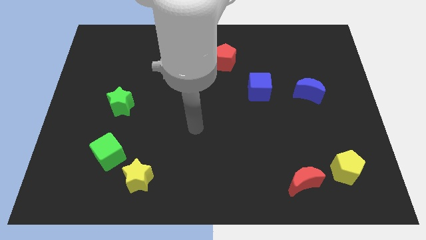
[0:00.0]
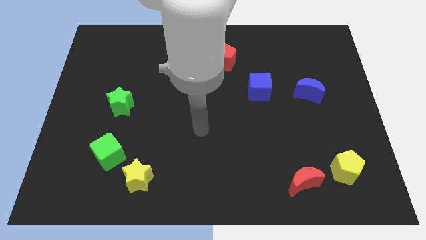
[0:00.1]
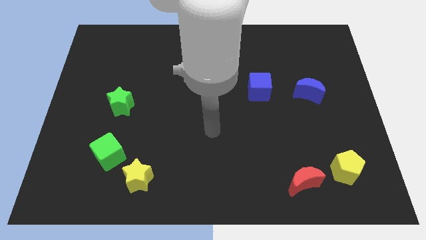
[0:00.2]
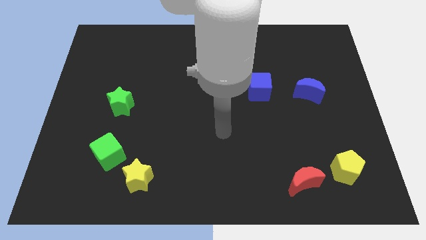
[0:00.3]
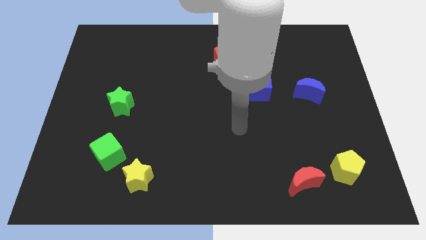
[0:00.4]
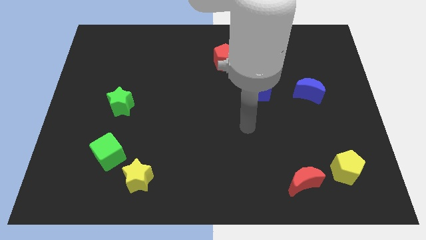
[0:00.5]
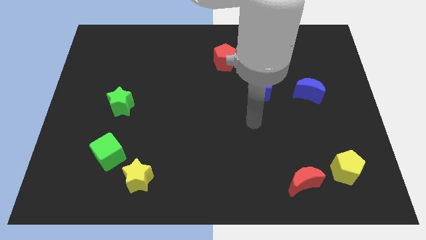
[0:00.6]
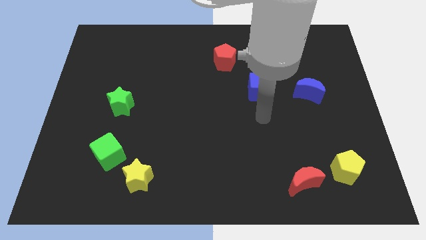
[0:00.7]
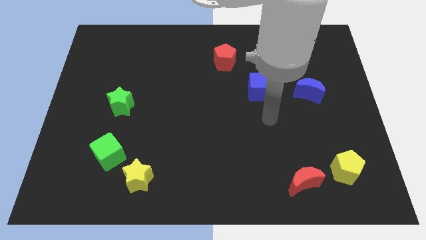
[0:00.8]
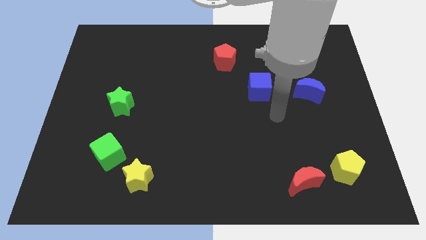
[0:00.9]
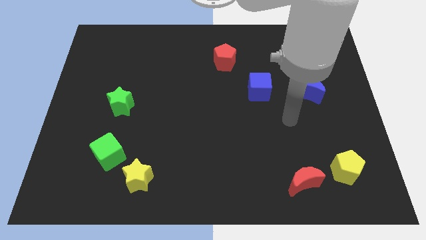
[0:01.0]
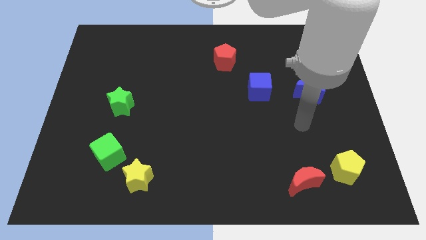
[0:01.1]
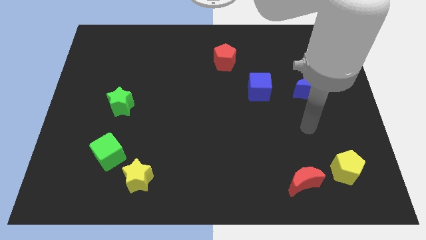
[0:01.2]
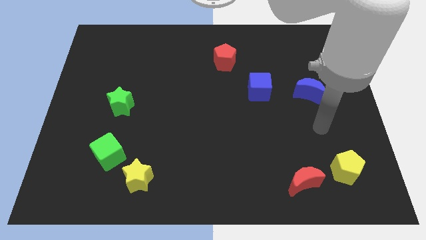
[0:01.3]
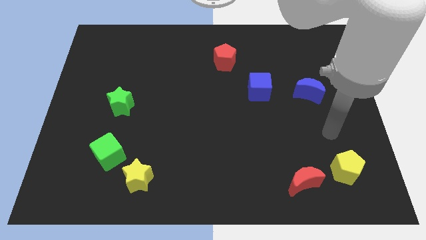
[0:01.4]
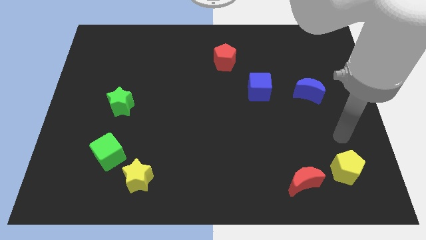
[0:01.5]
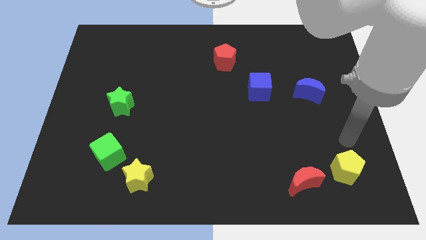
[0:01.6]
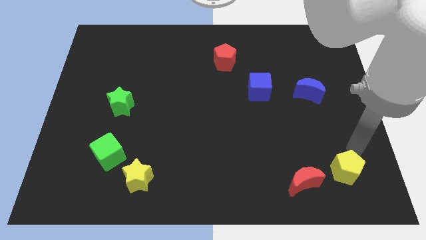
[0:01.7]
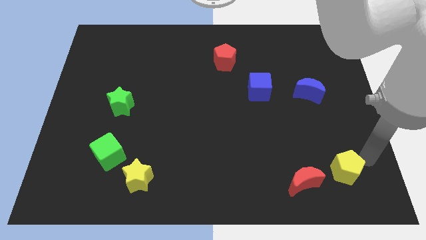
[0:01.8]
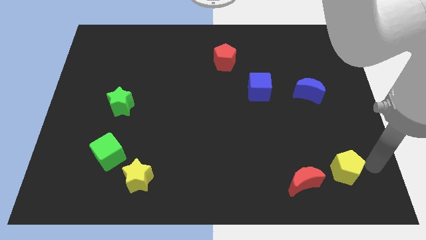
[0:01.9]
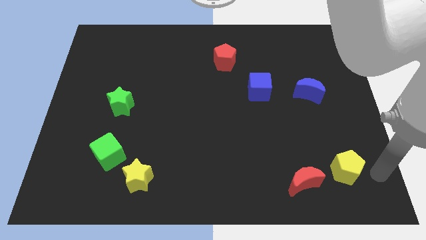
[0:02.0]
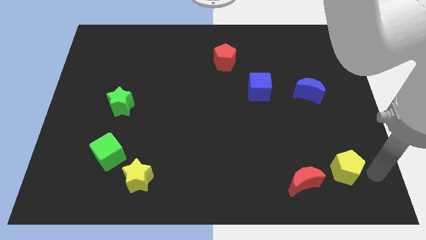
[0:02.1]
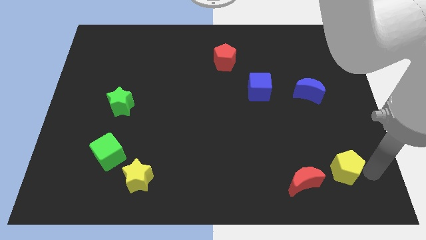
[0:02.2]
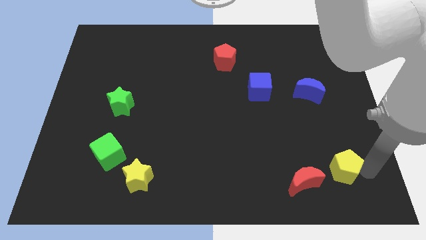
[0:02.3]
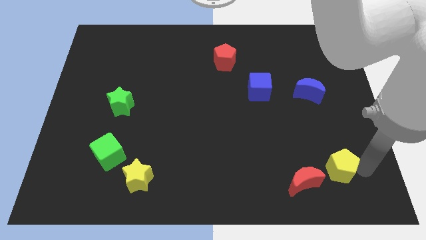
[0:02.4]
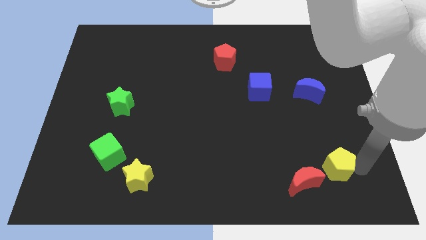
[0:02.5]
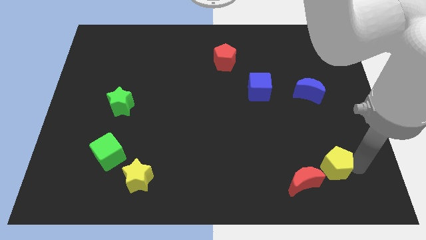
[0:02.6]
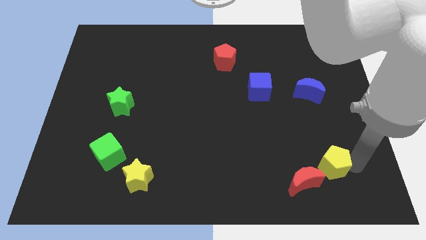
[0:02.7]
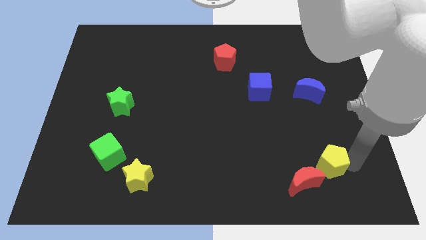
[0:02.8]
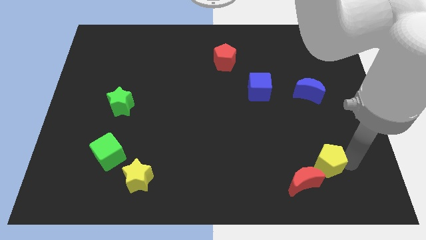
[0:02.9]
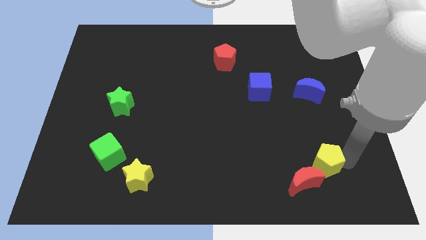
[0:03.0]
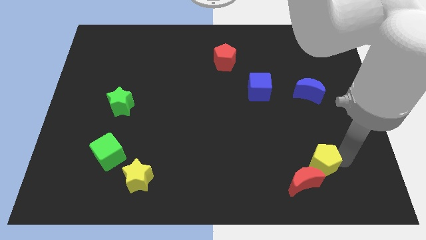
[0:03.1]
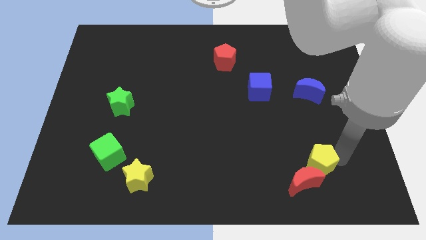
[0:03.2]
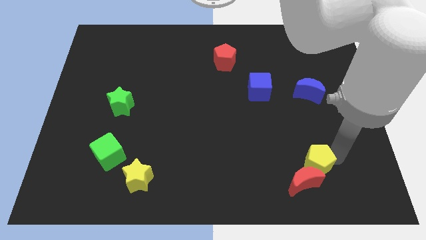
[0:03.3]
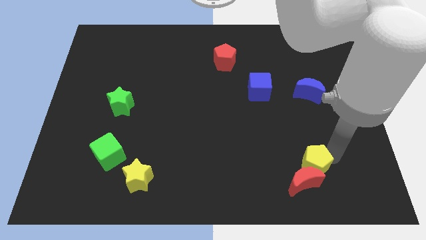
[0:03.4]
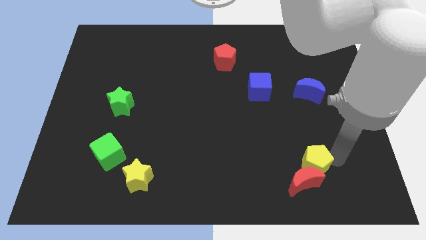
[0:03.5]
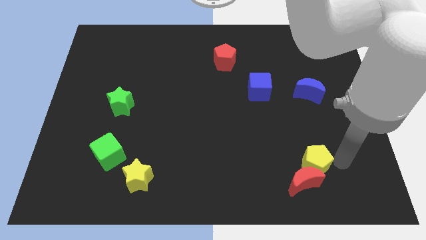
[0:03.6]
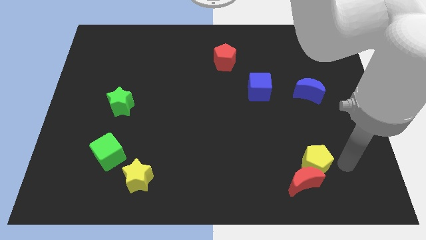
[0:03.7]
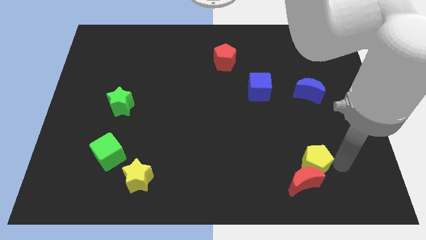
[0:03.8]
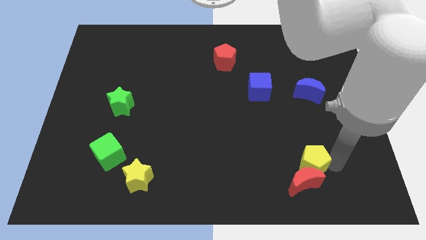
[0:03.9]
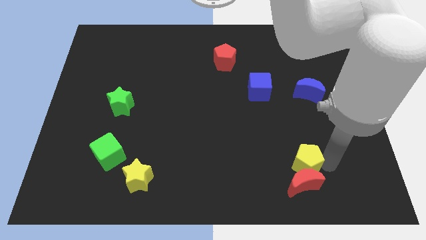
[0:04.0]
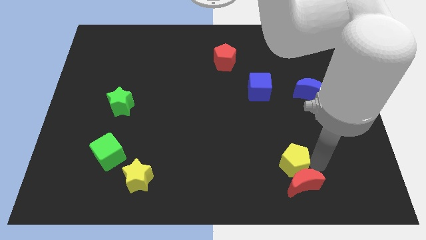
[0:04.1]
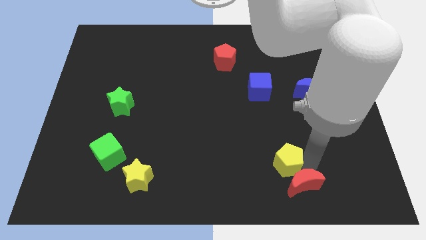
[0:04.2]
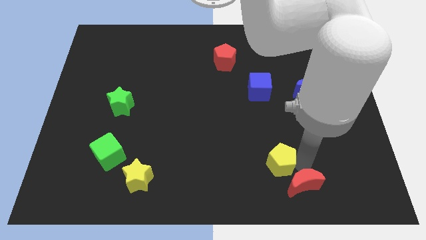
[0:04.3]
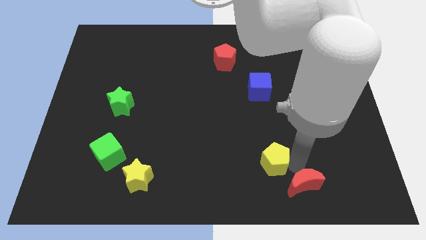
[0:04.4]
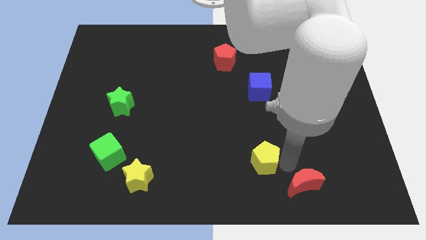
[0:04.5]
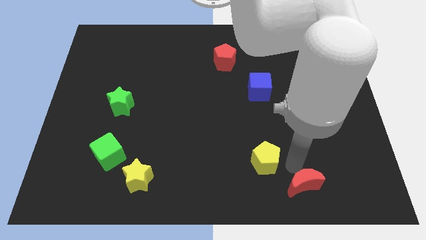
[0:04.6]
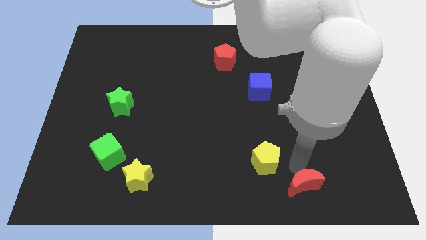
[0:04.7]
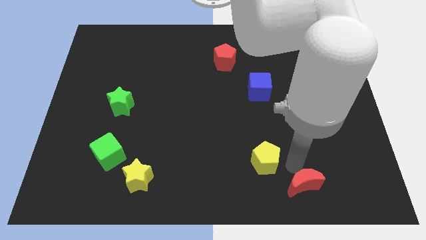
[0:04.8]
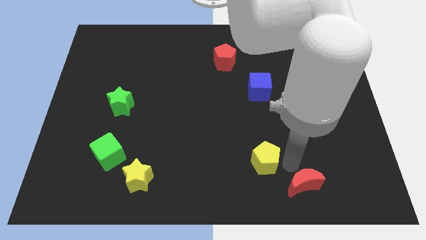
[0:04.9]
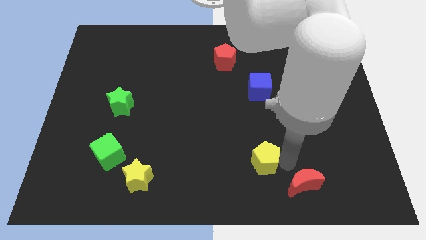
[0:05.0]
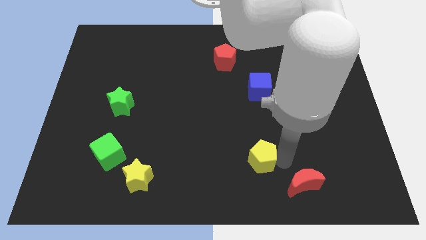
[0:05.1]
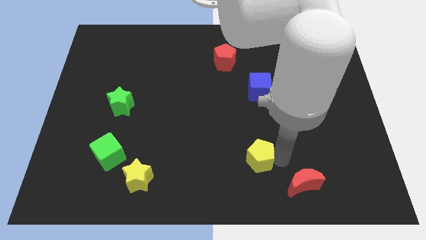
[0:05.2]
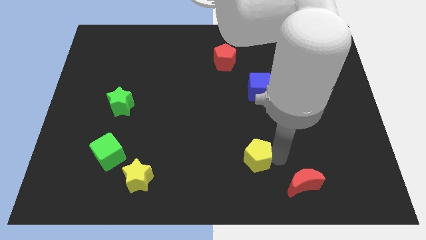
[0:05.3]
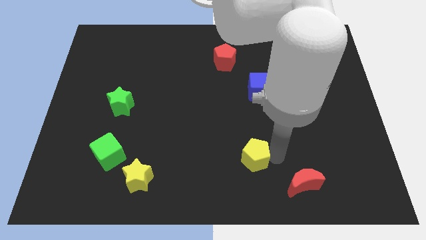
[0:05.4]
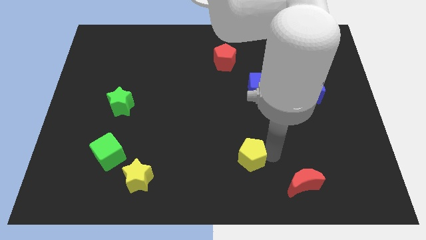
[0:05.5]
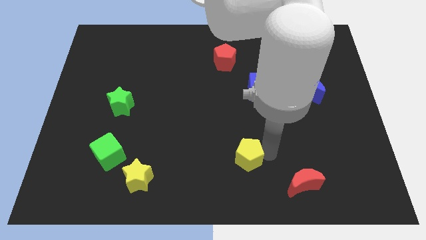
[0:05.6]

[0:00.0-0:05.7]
push the yellow pentagon left

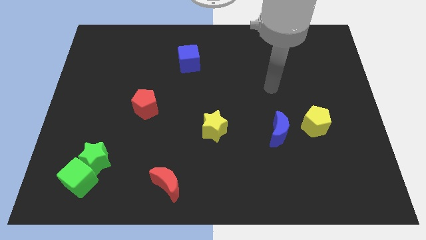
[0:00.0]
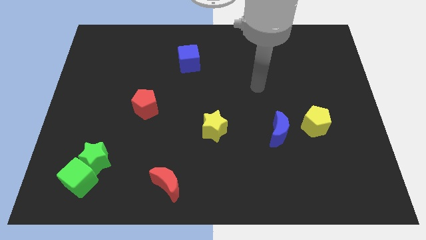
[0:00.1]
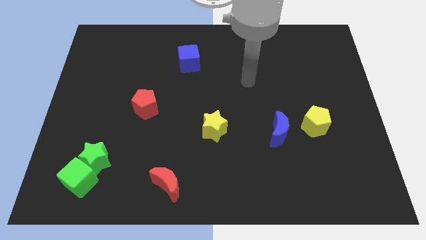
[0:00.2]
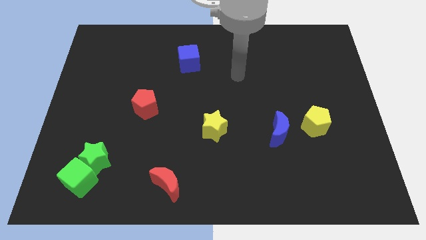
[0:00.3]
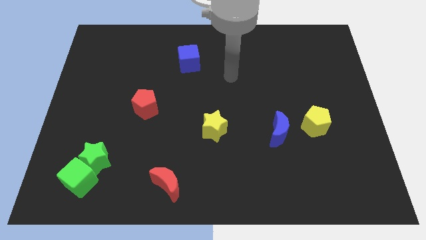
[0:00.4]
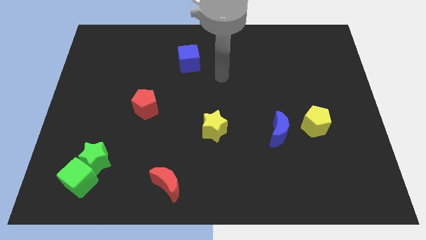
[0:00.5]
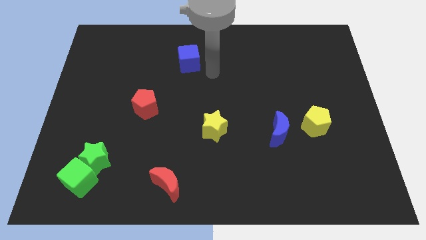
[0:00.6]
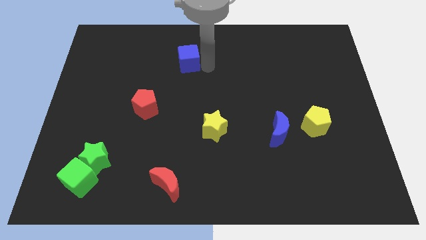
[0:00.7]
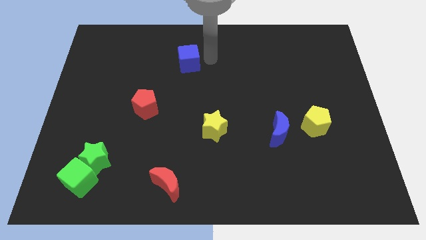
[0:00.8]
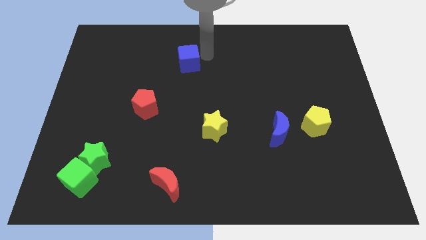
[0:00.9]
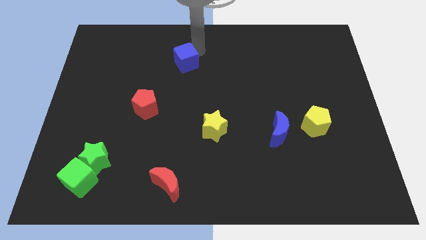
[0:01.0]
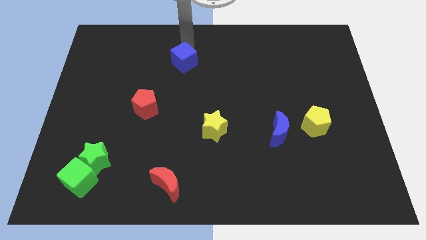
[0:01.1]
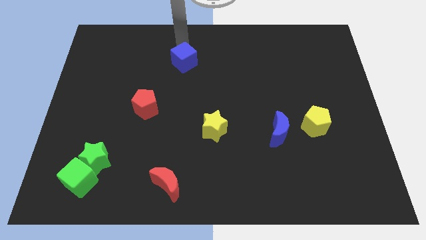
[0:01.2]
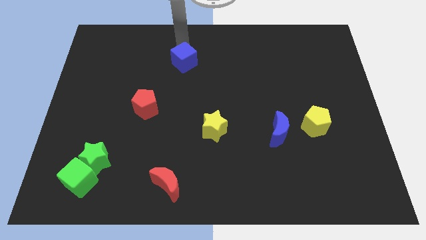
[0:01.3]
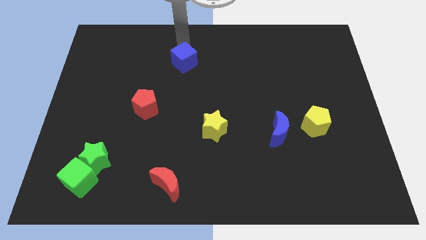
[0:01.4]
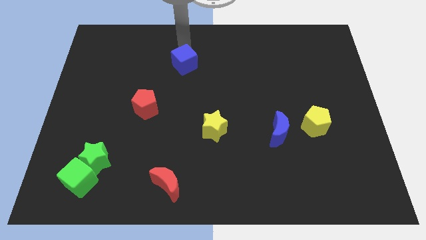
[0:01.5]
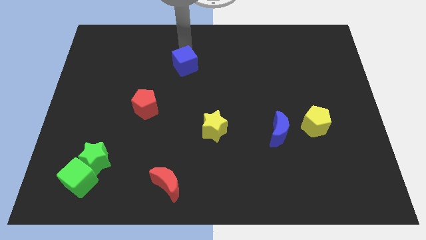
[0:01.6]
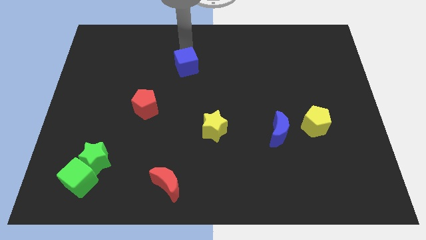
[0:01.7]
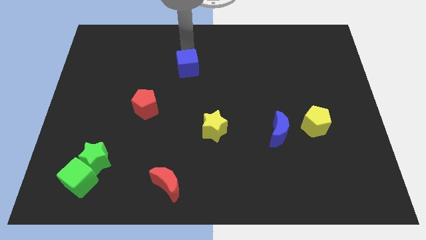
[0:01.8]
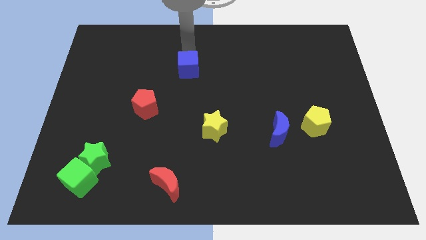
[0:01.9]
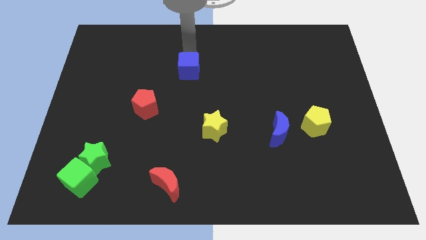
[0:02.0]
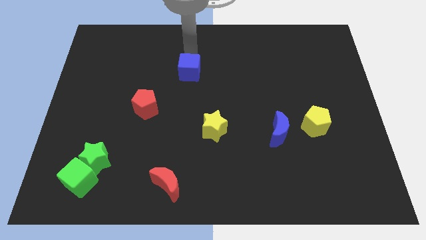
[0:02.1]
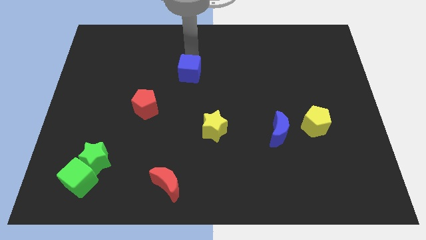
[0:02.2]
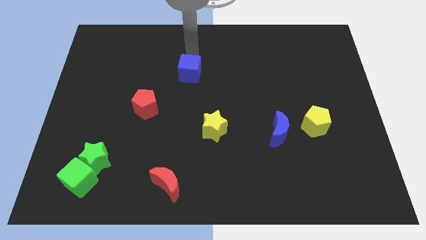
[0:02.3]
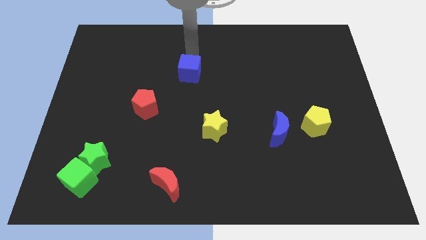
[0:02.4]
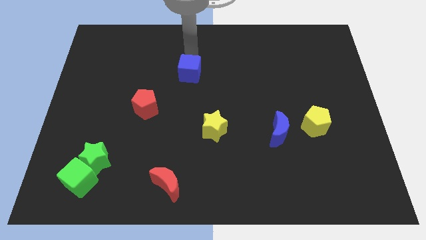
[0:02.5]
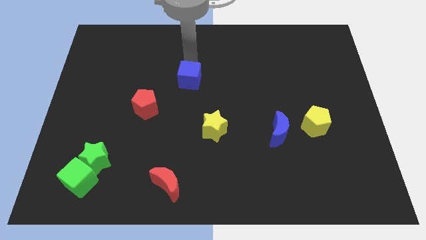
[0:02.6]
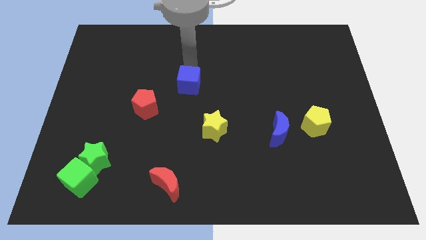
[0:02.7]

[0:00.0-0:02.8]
push the blue cube a little downwards
